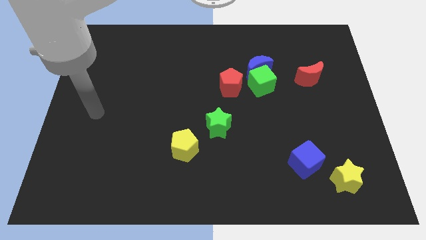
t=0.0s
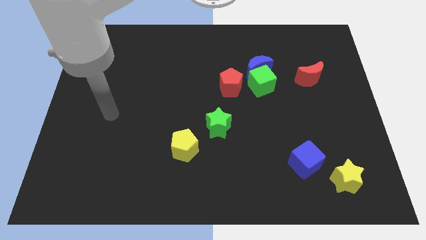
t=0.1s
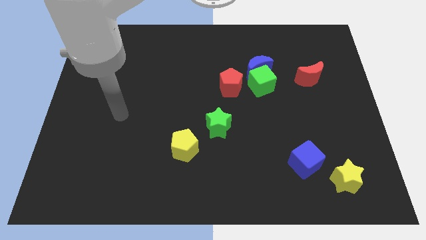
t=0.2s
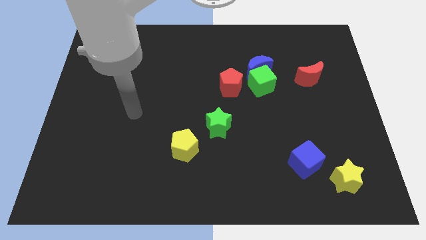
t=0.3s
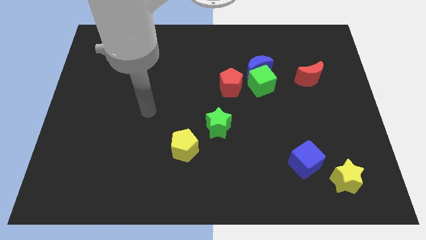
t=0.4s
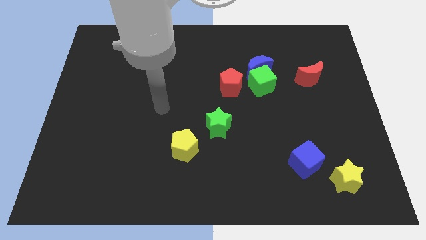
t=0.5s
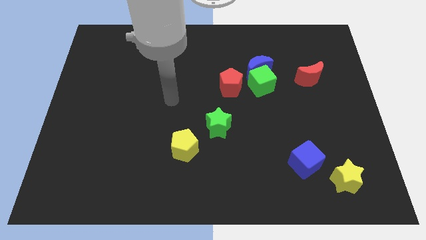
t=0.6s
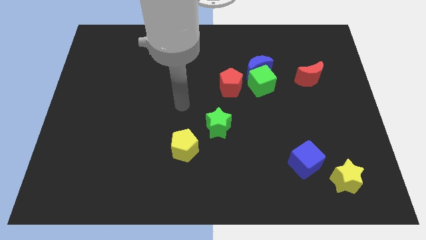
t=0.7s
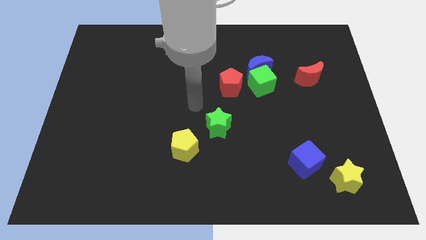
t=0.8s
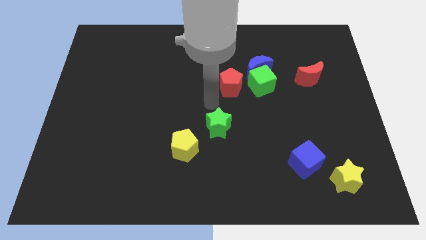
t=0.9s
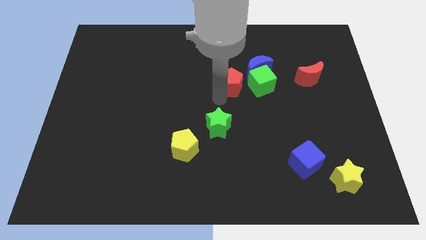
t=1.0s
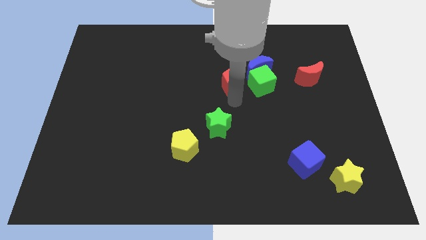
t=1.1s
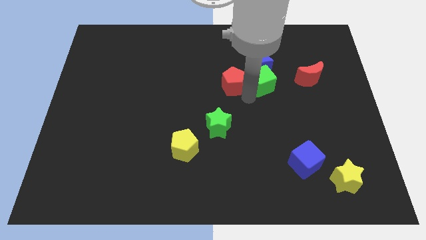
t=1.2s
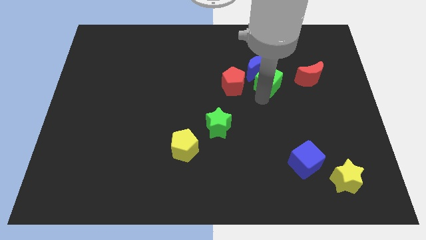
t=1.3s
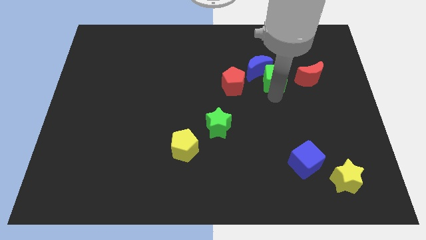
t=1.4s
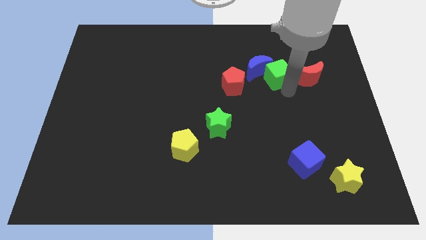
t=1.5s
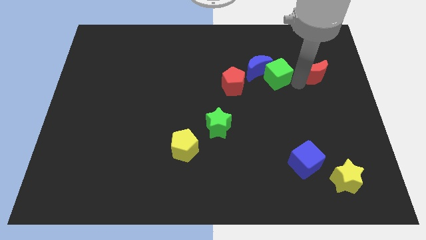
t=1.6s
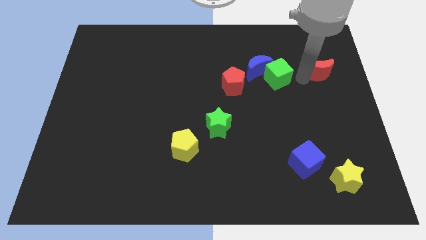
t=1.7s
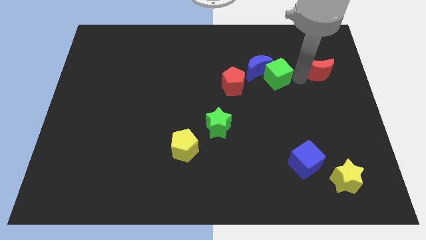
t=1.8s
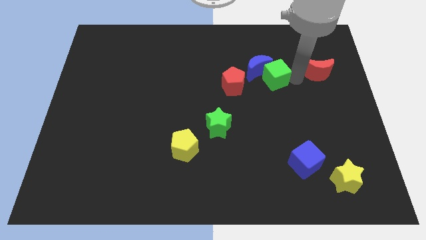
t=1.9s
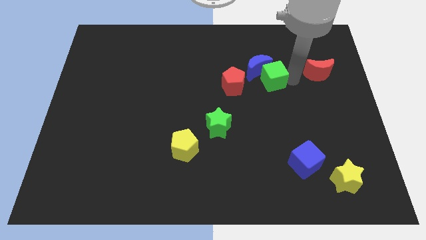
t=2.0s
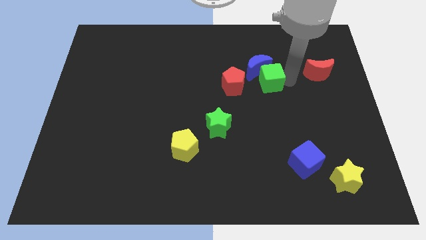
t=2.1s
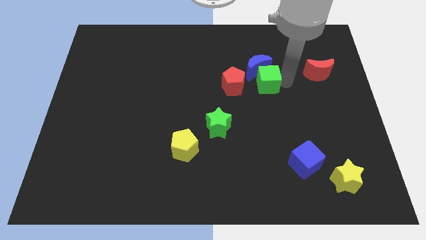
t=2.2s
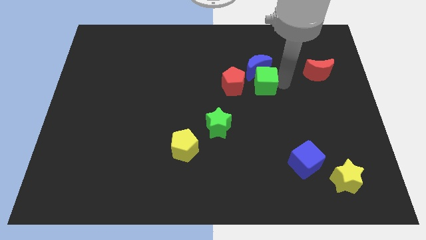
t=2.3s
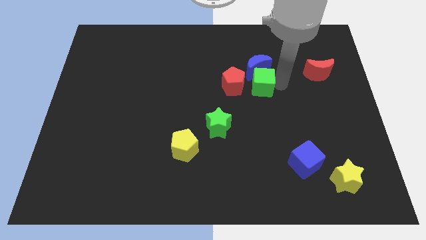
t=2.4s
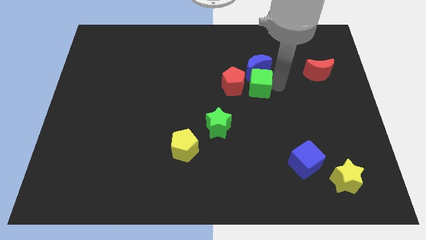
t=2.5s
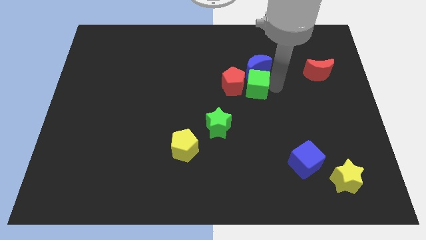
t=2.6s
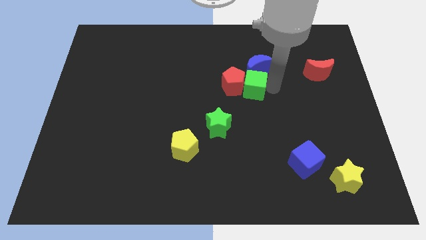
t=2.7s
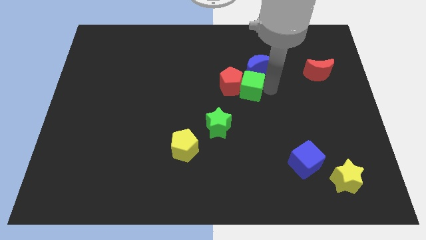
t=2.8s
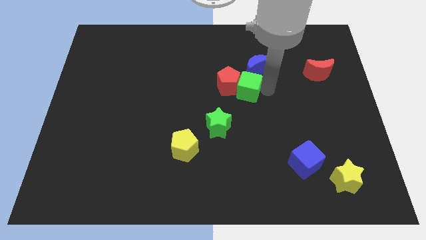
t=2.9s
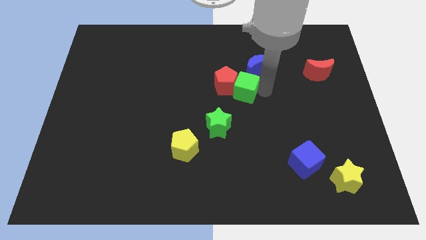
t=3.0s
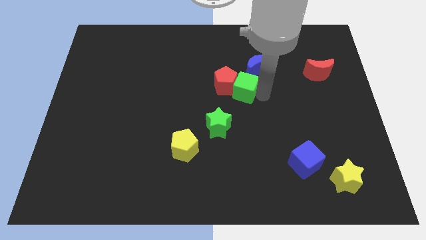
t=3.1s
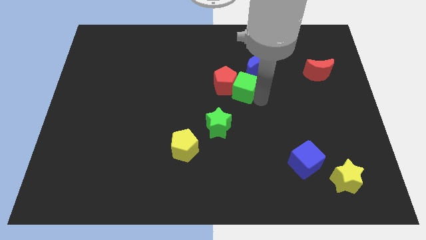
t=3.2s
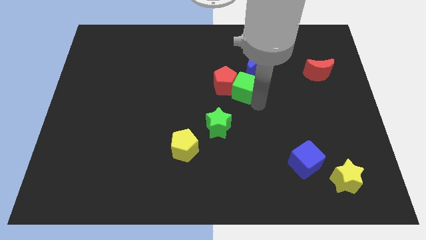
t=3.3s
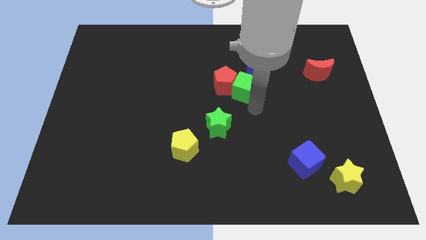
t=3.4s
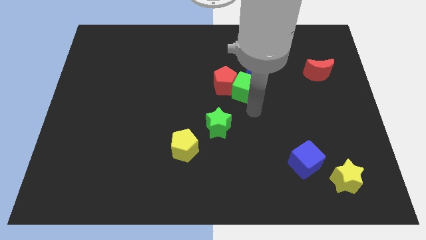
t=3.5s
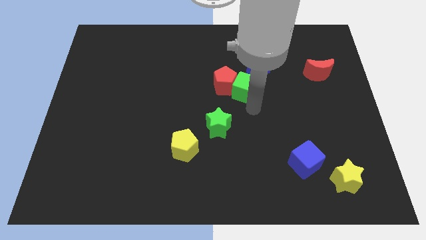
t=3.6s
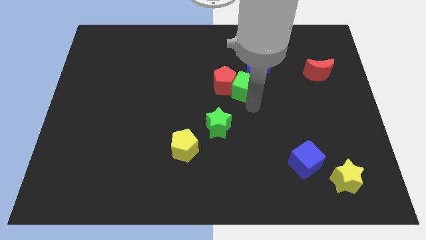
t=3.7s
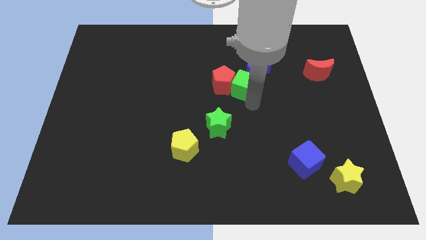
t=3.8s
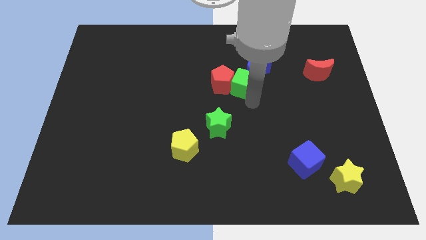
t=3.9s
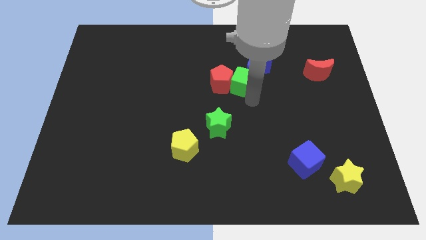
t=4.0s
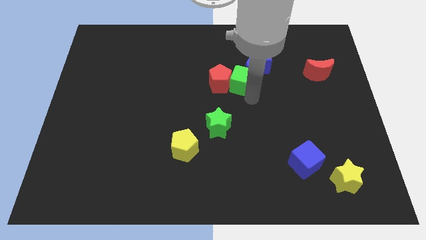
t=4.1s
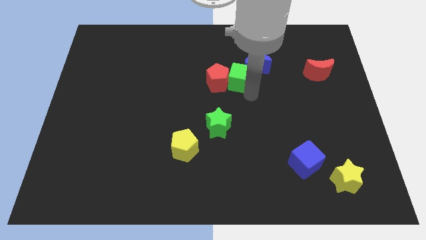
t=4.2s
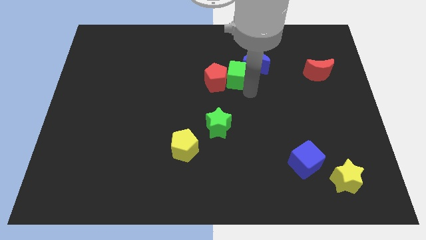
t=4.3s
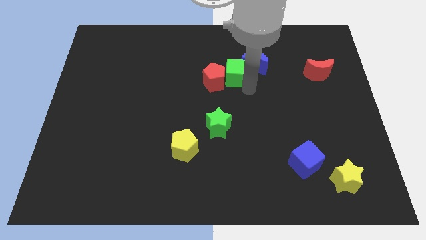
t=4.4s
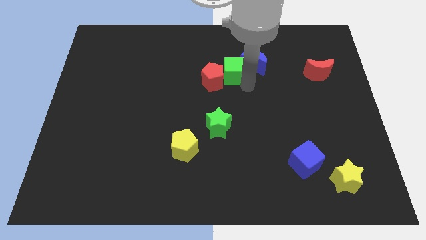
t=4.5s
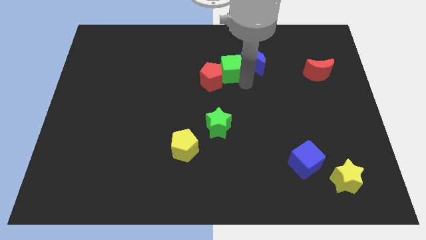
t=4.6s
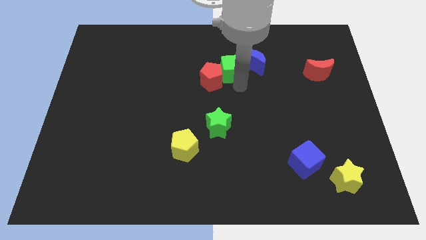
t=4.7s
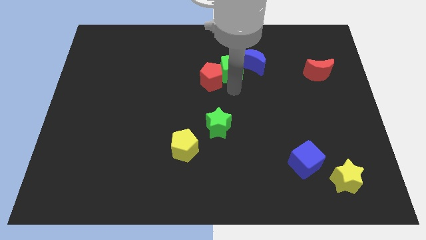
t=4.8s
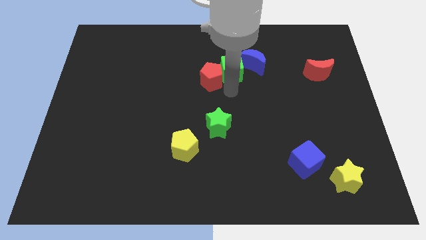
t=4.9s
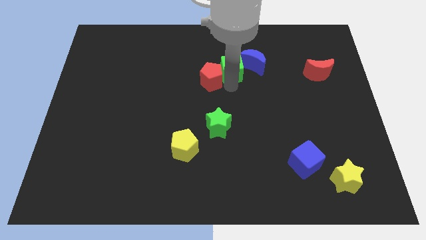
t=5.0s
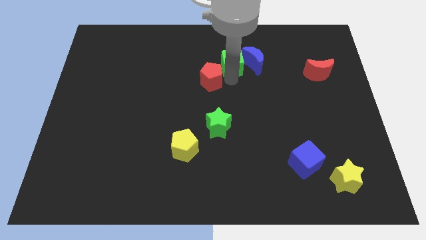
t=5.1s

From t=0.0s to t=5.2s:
move the green cube diagonally up and to the left of the blue moon

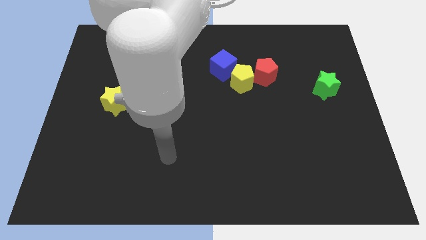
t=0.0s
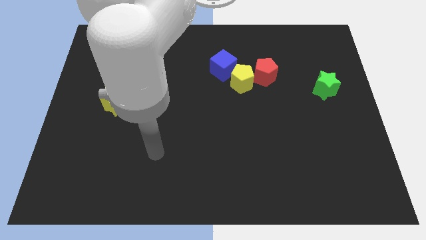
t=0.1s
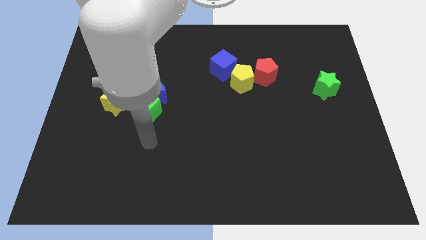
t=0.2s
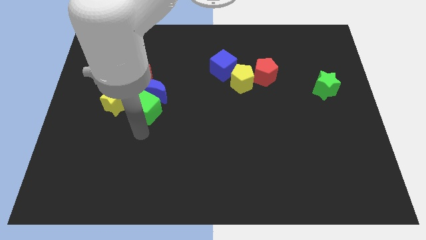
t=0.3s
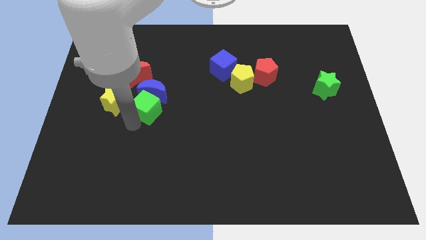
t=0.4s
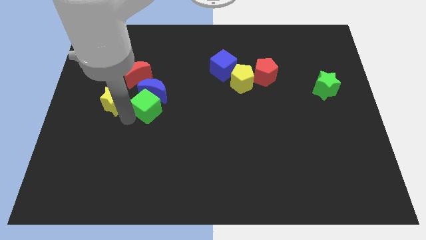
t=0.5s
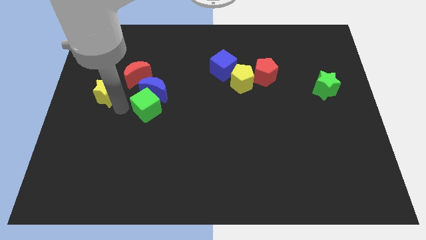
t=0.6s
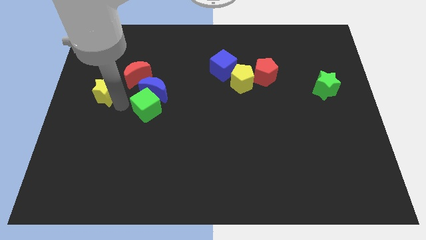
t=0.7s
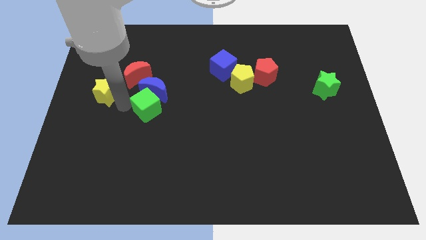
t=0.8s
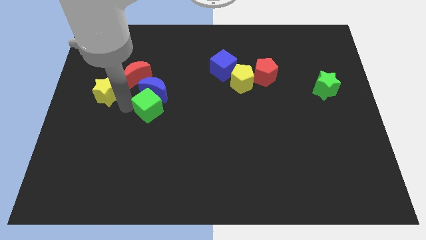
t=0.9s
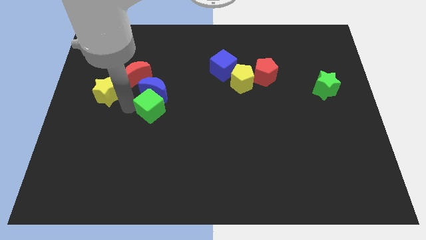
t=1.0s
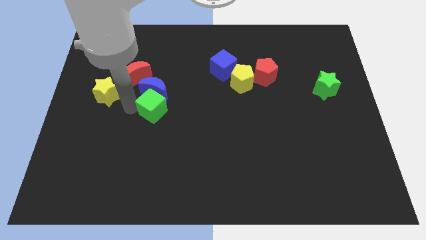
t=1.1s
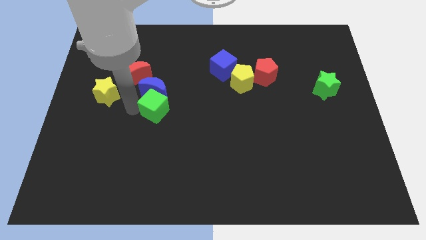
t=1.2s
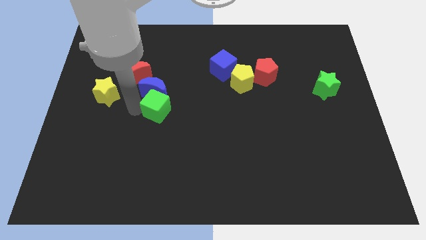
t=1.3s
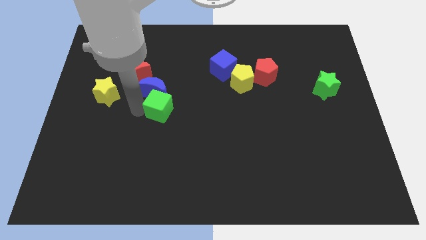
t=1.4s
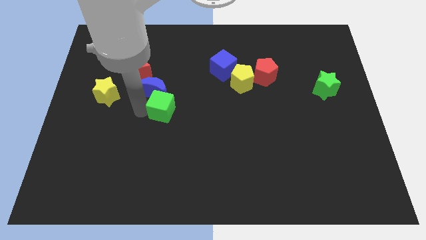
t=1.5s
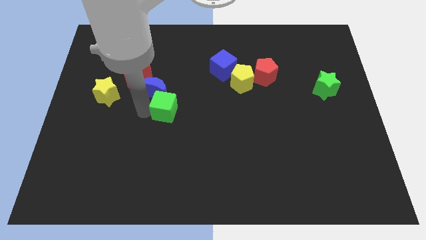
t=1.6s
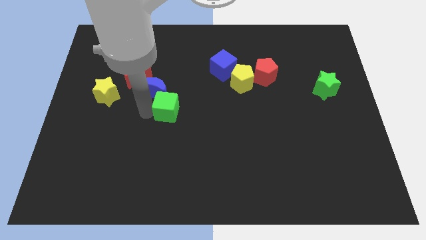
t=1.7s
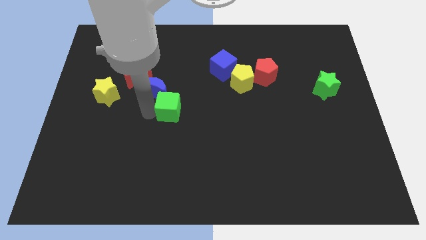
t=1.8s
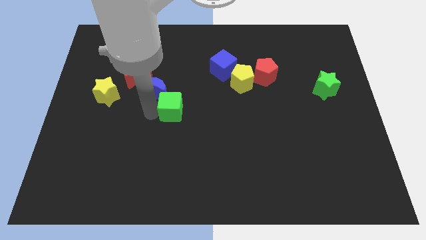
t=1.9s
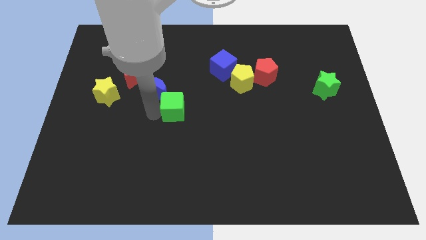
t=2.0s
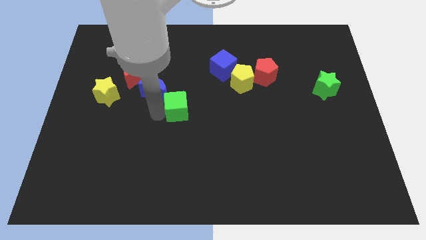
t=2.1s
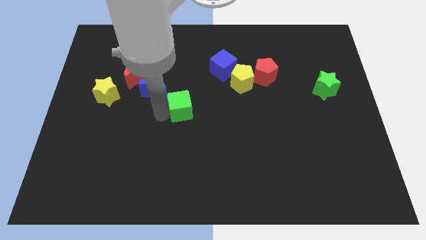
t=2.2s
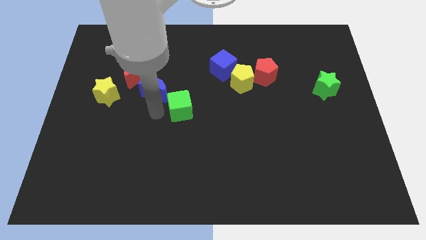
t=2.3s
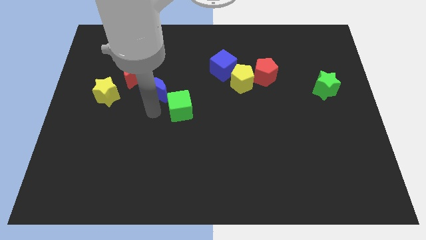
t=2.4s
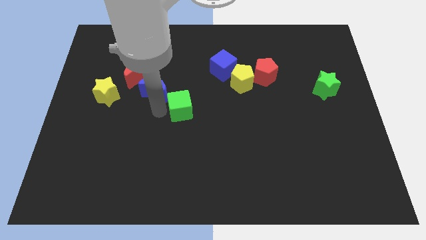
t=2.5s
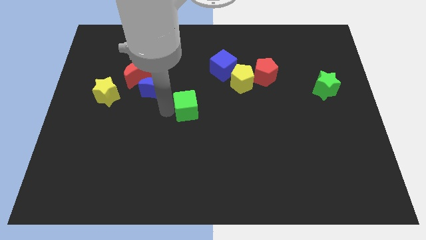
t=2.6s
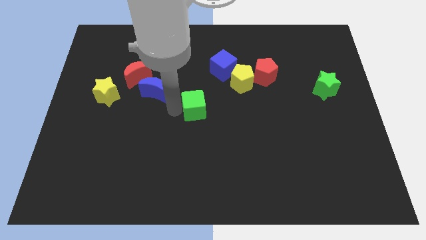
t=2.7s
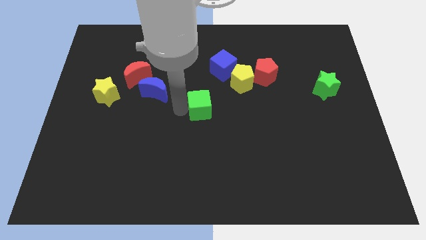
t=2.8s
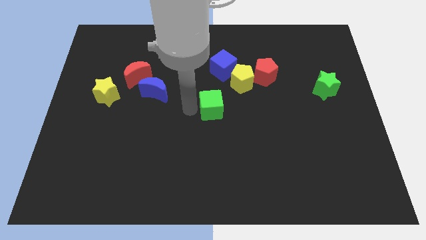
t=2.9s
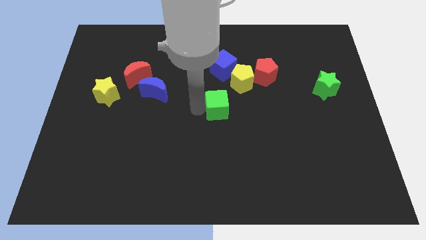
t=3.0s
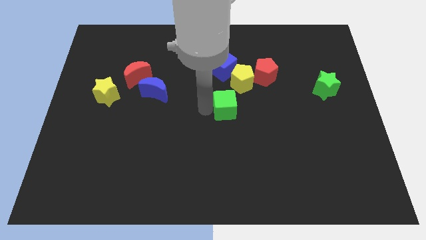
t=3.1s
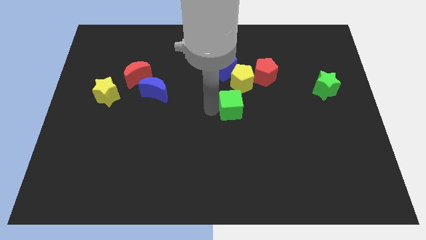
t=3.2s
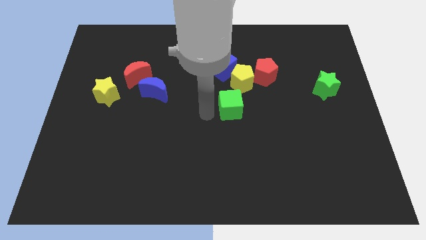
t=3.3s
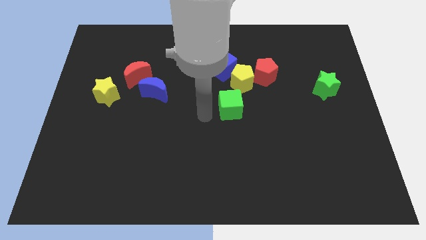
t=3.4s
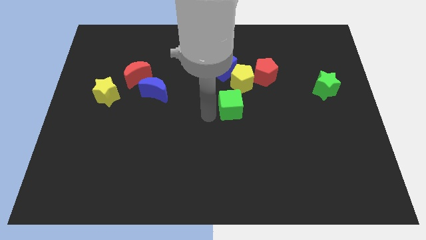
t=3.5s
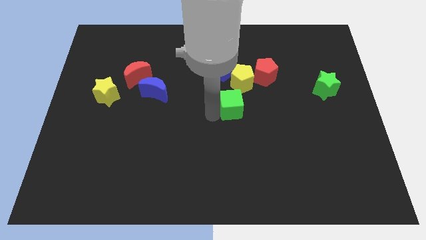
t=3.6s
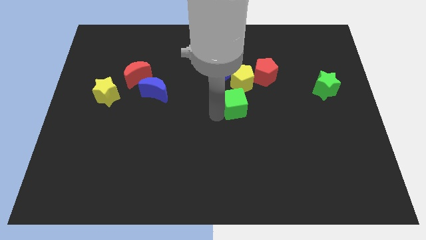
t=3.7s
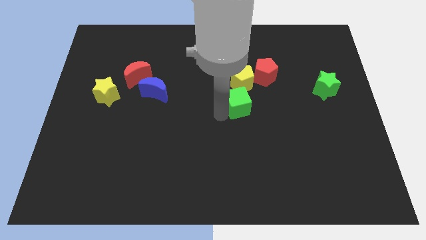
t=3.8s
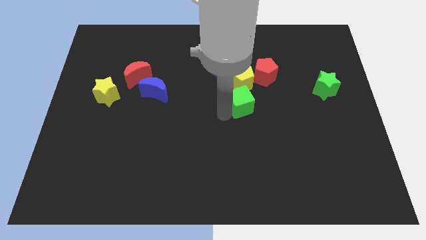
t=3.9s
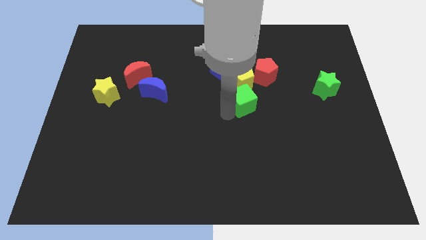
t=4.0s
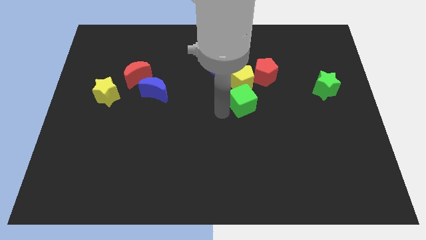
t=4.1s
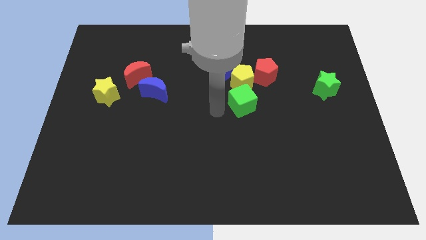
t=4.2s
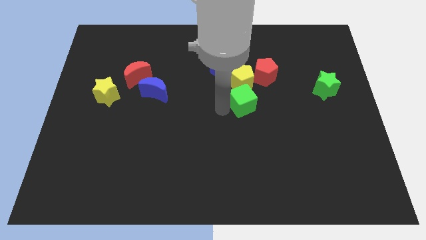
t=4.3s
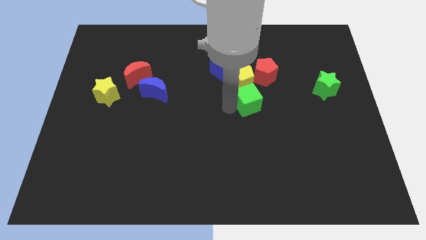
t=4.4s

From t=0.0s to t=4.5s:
slide the green cube to the bottom right of the yellow pentagon
